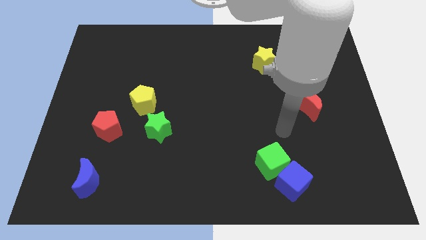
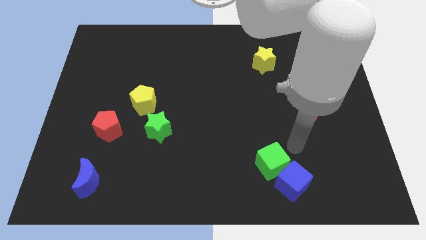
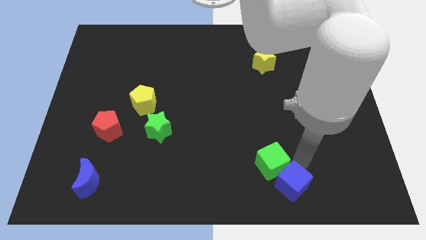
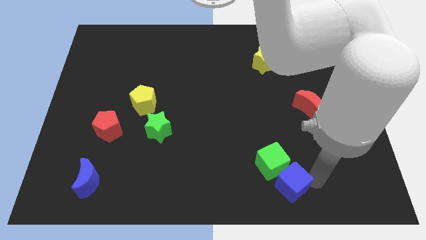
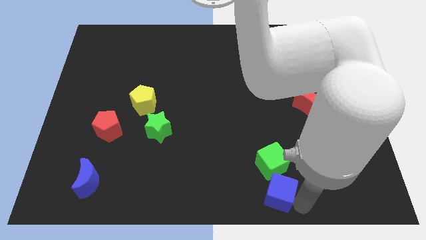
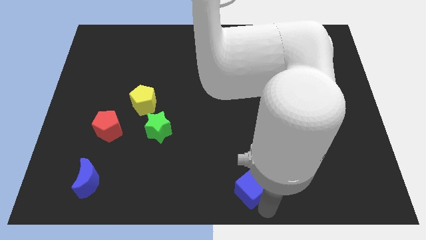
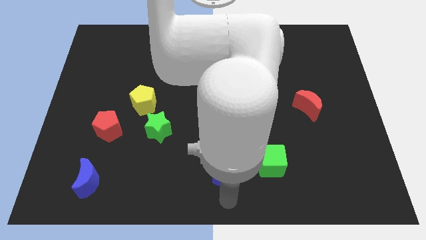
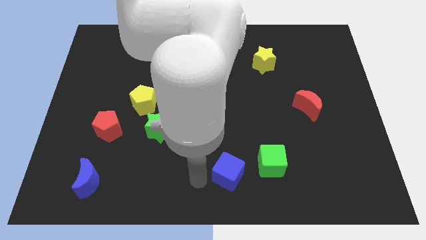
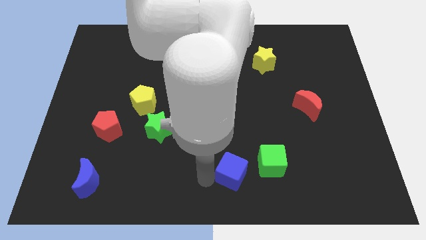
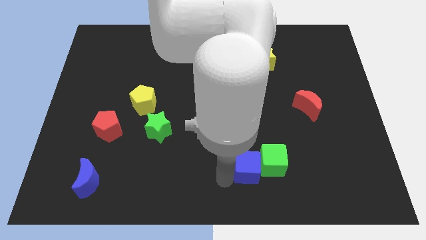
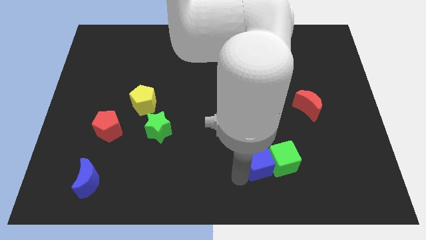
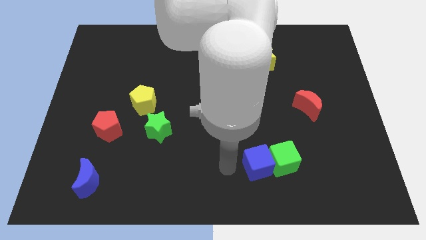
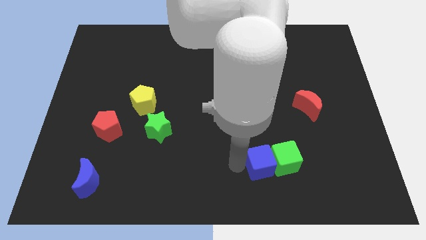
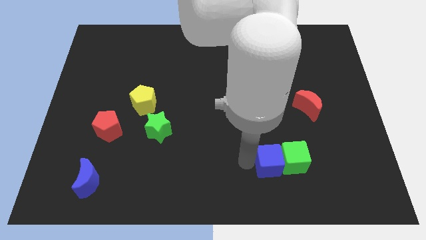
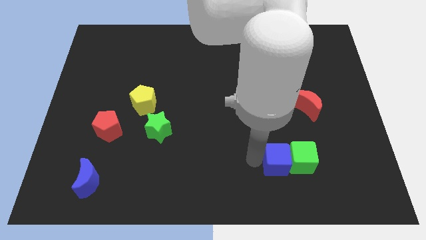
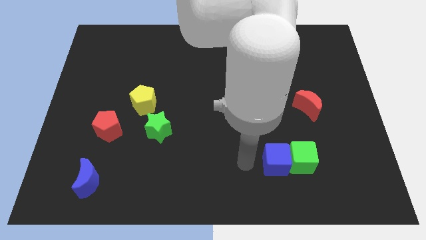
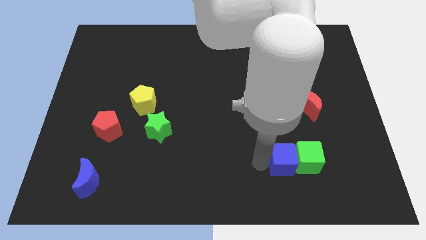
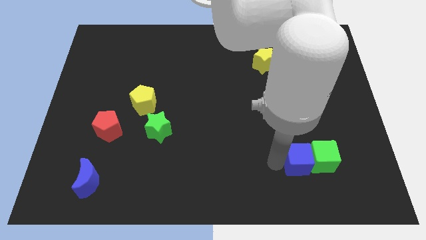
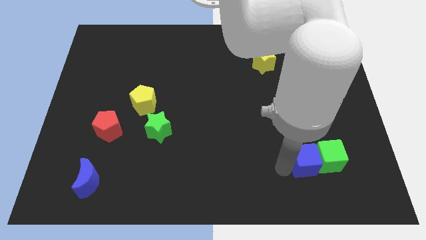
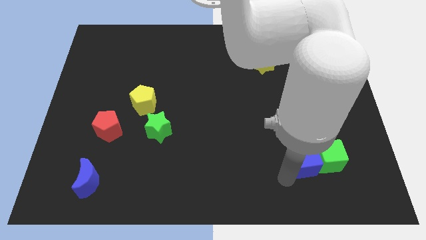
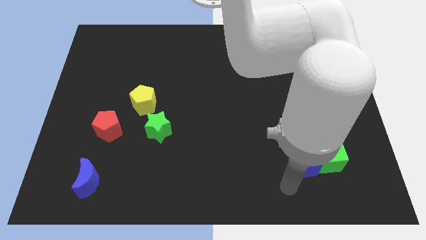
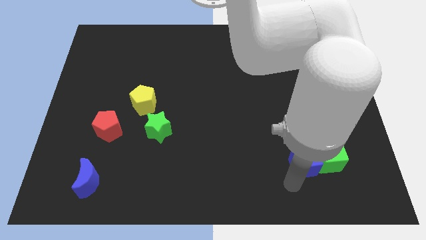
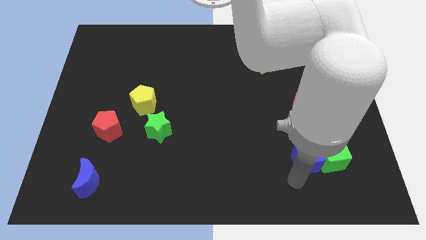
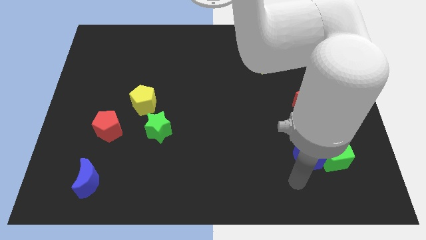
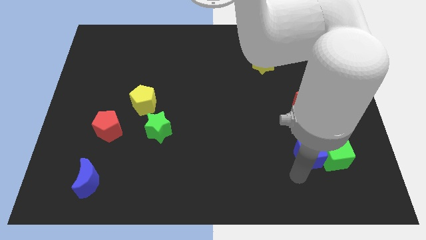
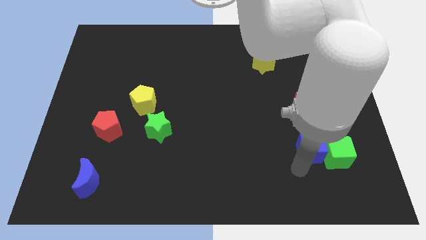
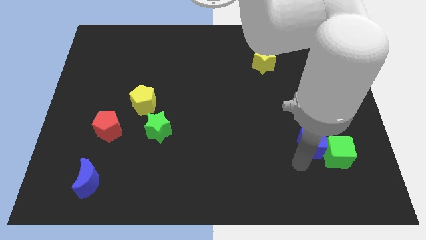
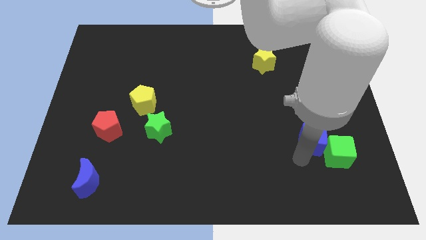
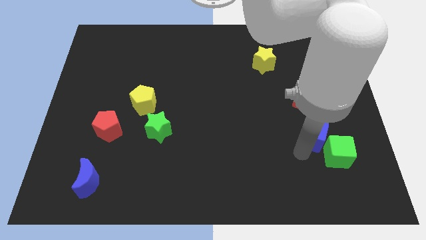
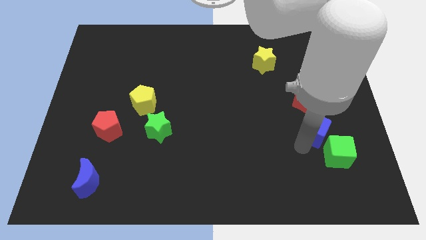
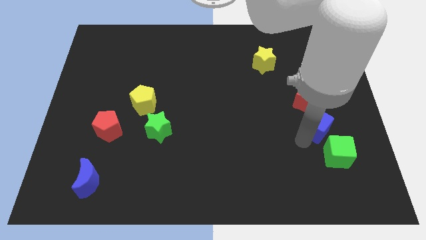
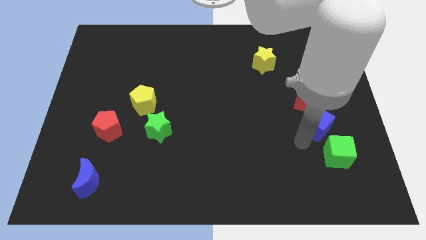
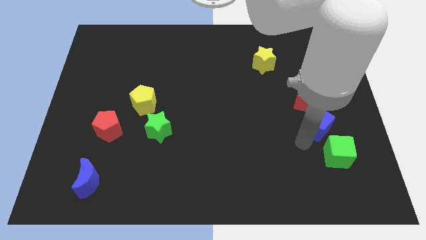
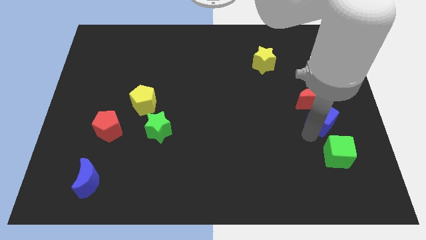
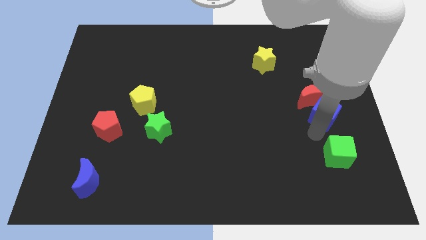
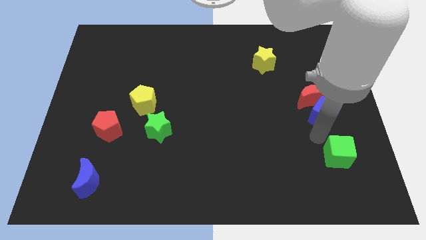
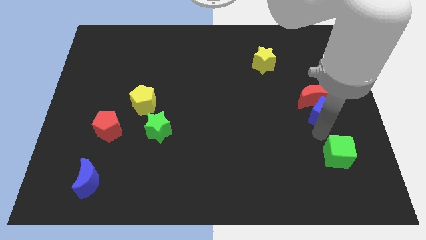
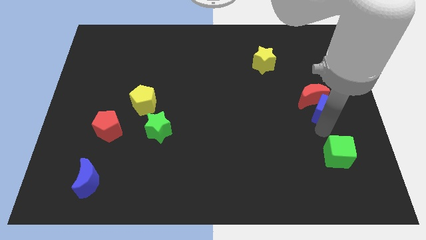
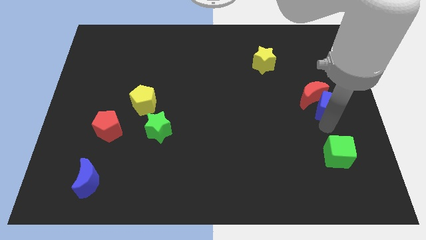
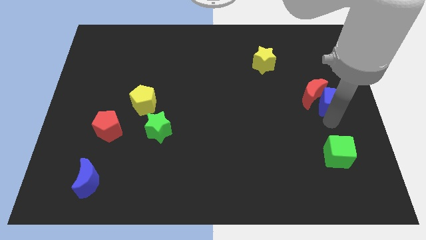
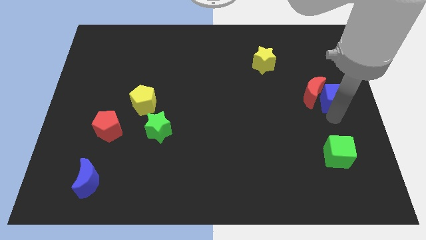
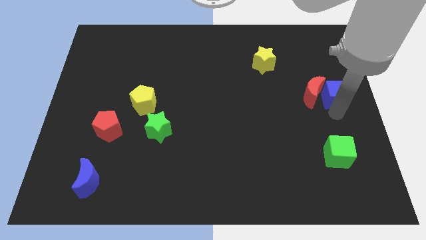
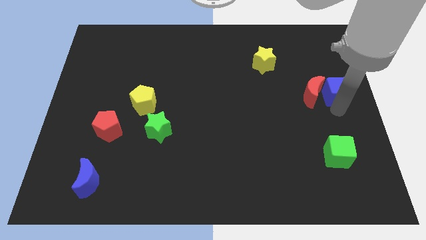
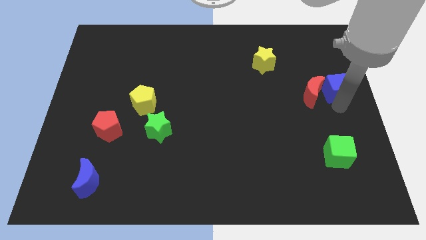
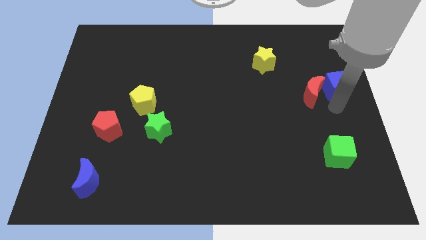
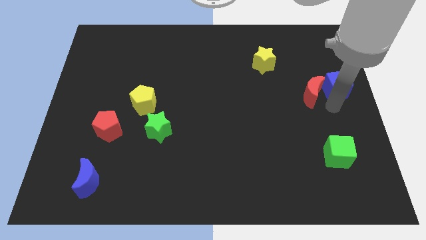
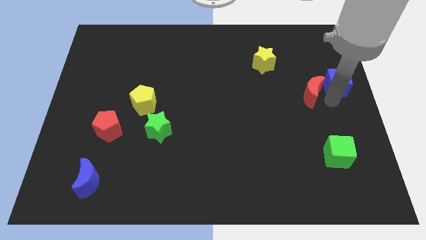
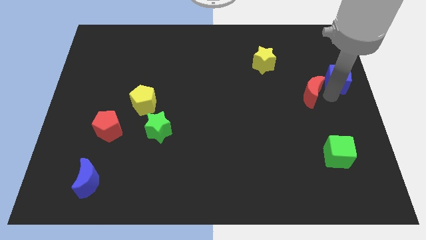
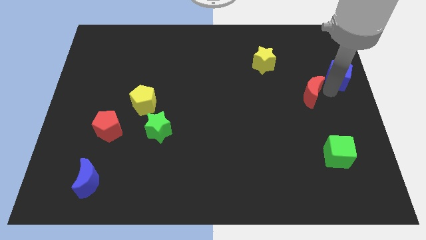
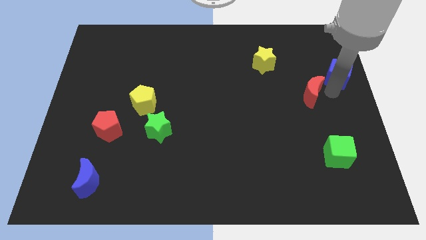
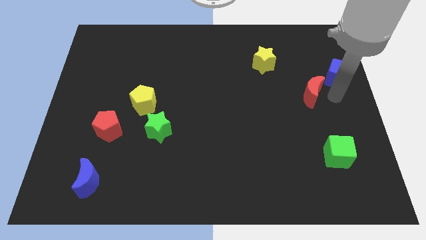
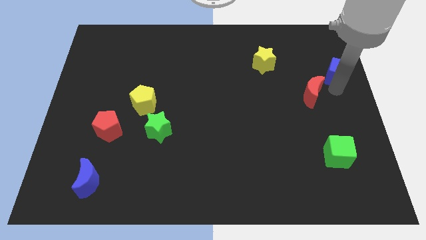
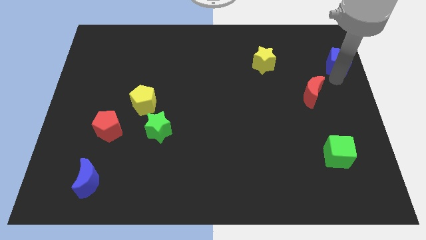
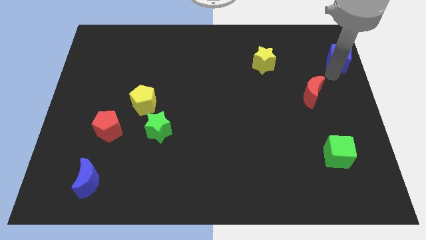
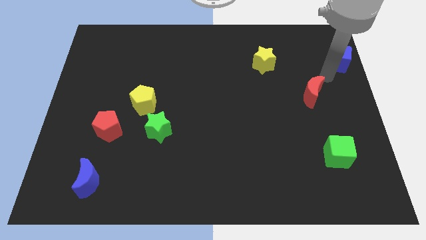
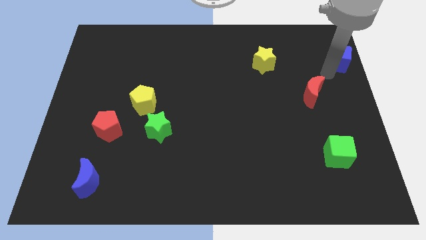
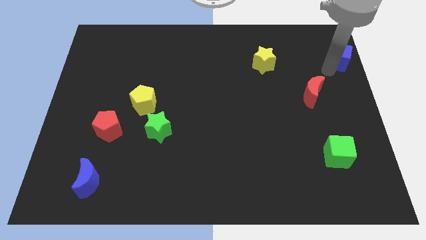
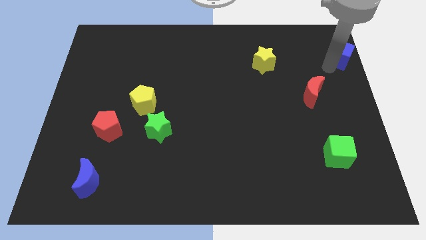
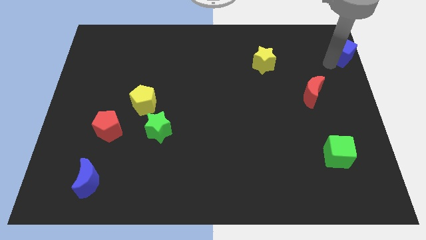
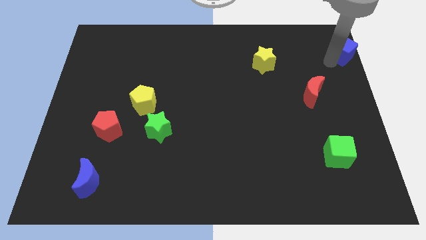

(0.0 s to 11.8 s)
put the blue cube to the top right of the board
